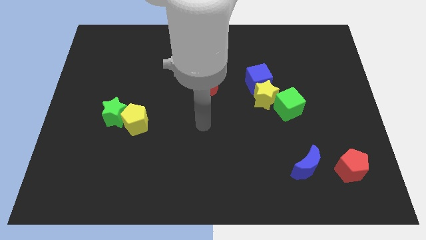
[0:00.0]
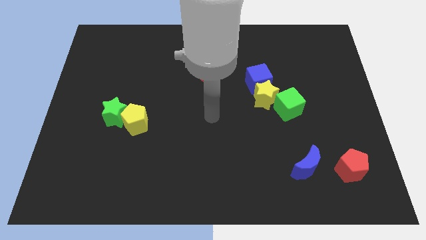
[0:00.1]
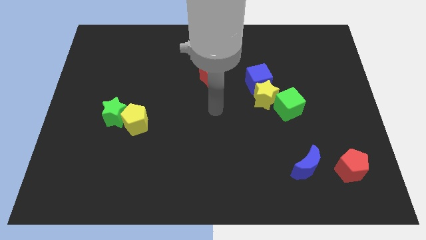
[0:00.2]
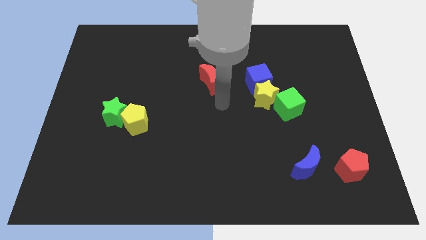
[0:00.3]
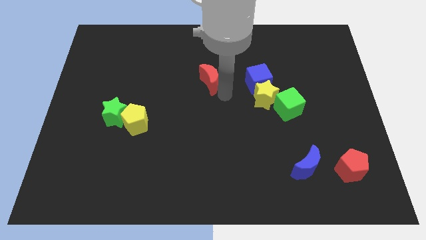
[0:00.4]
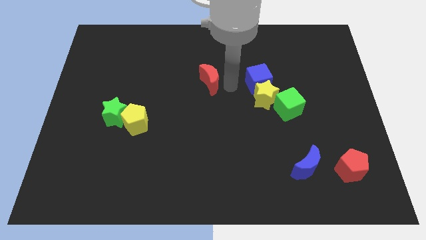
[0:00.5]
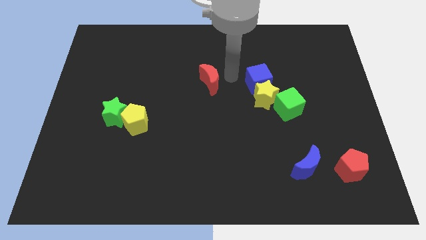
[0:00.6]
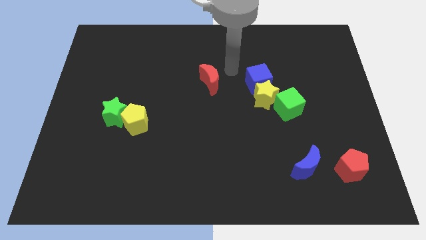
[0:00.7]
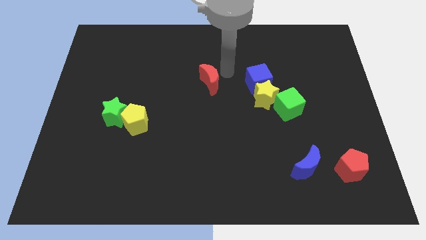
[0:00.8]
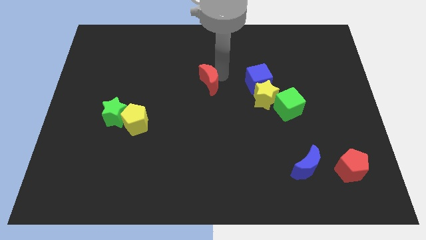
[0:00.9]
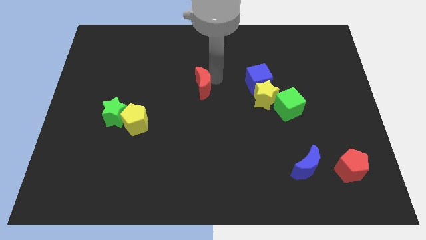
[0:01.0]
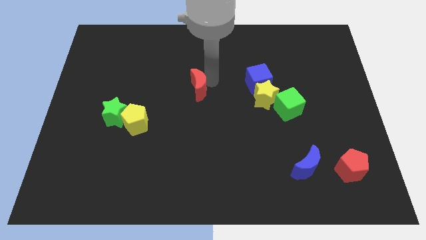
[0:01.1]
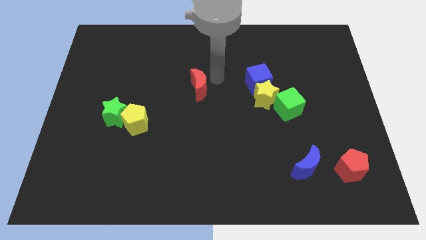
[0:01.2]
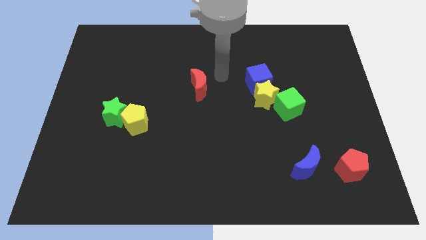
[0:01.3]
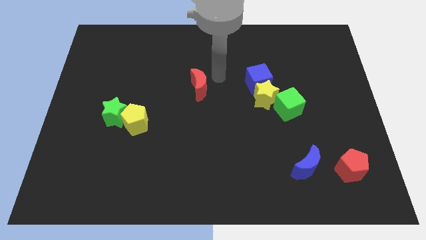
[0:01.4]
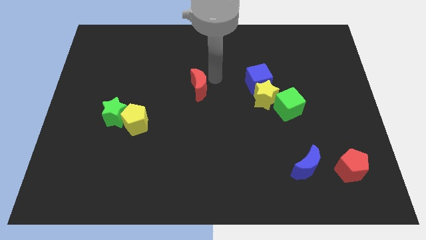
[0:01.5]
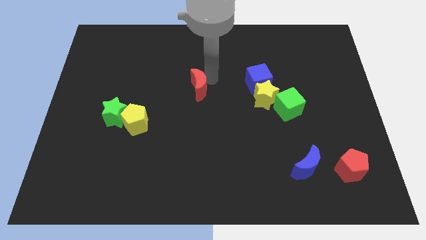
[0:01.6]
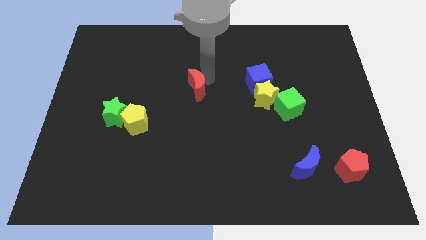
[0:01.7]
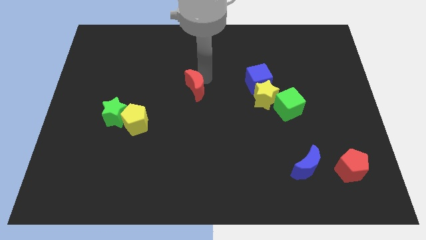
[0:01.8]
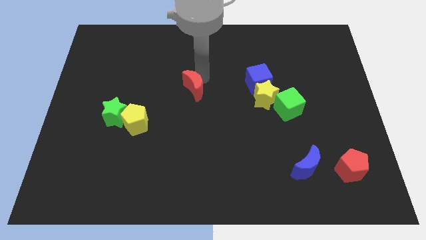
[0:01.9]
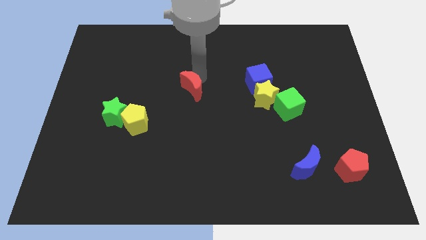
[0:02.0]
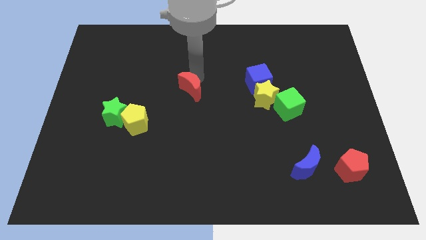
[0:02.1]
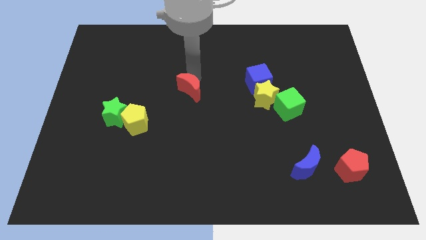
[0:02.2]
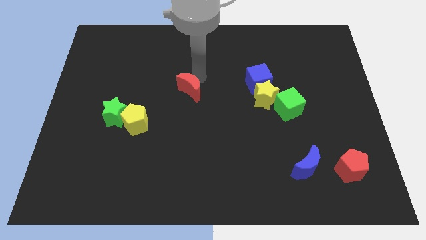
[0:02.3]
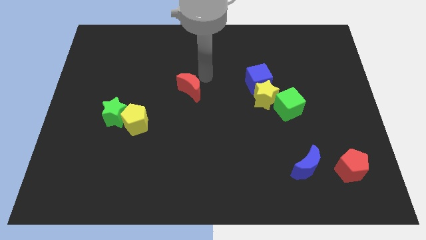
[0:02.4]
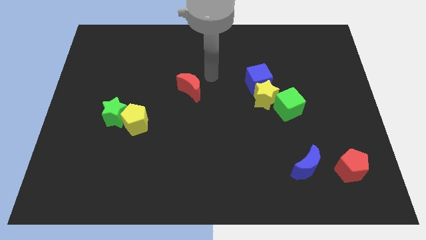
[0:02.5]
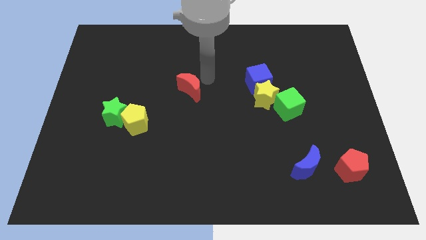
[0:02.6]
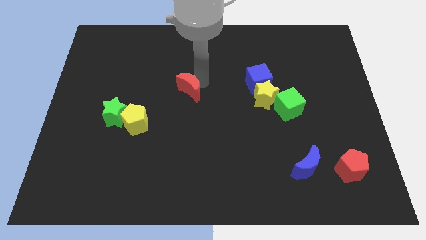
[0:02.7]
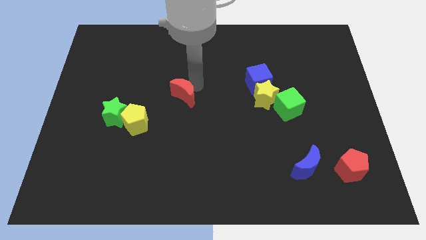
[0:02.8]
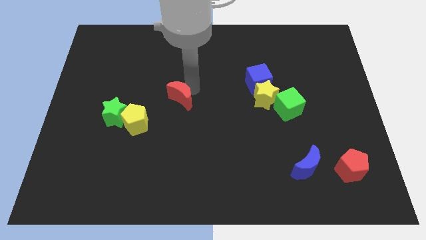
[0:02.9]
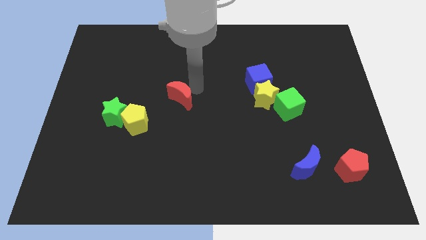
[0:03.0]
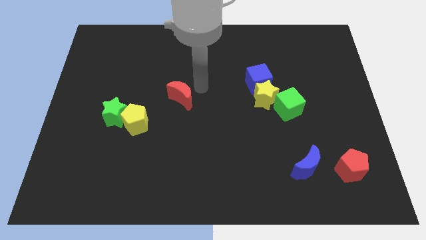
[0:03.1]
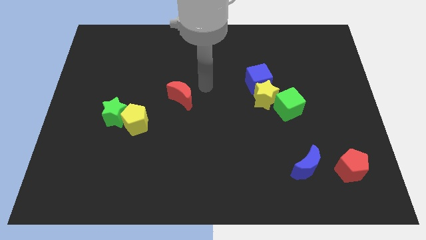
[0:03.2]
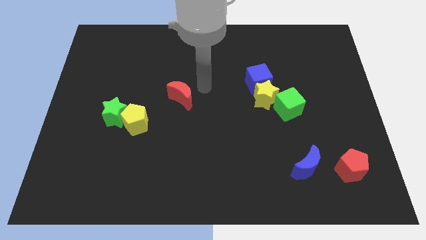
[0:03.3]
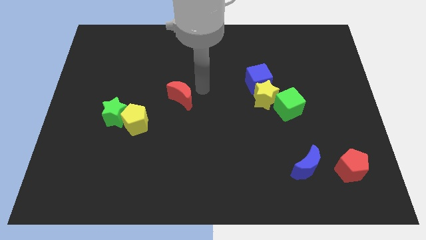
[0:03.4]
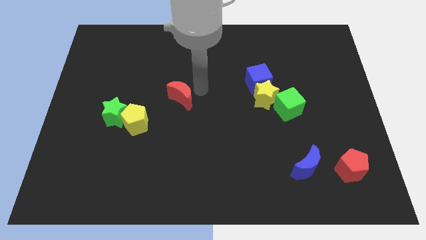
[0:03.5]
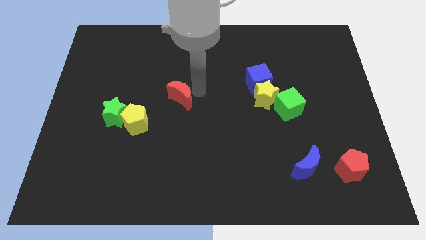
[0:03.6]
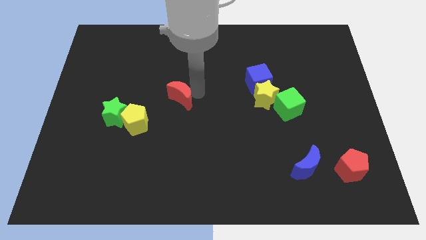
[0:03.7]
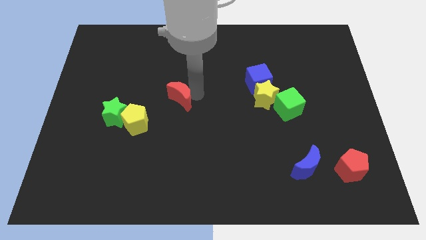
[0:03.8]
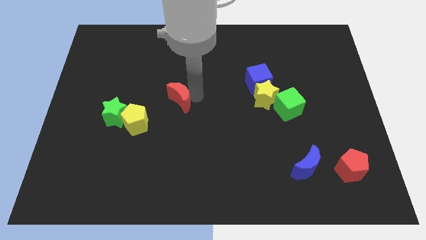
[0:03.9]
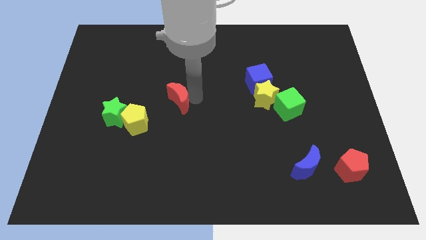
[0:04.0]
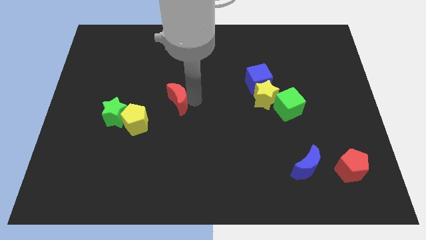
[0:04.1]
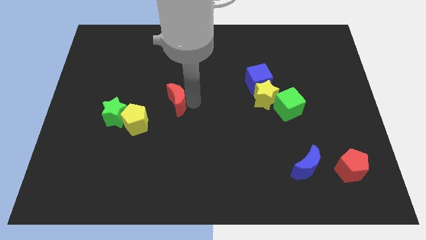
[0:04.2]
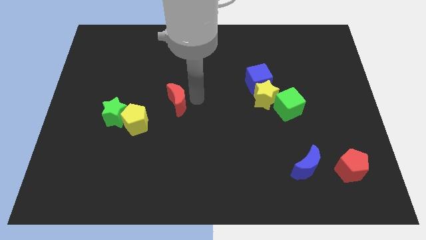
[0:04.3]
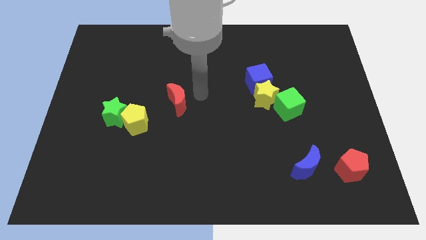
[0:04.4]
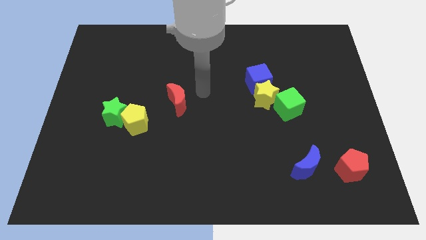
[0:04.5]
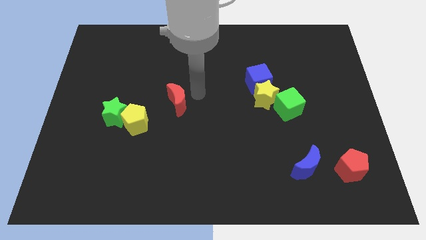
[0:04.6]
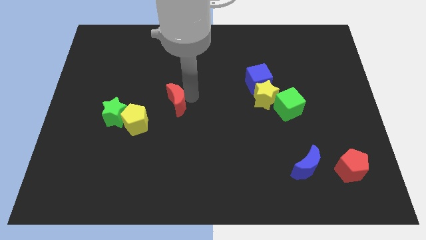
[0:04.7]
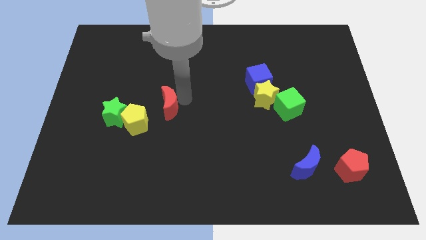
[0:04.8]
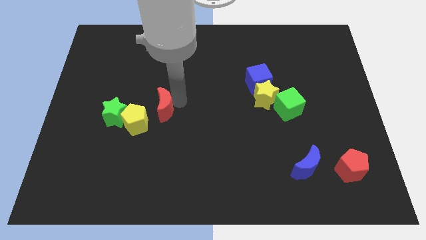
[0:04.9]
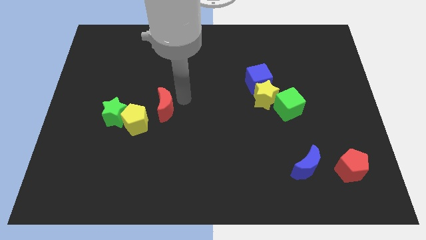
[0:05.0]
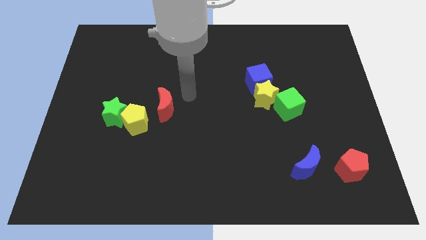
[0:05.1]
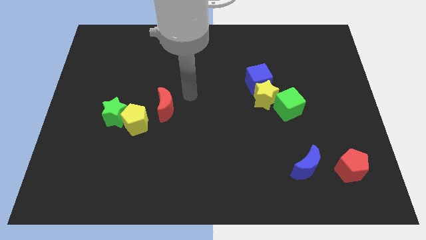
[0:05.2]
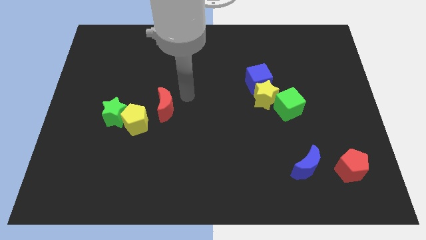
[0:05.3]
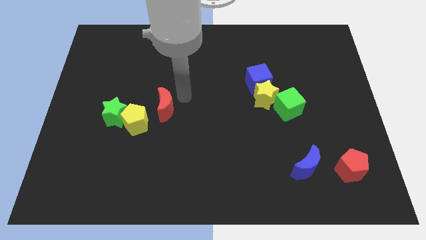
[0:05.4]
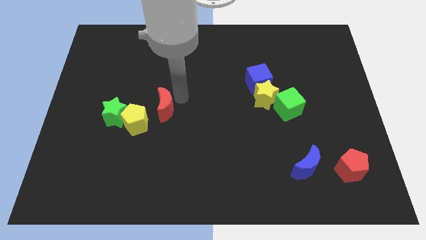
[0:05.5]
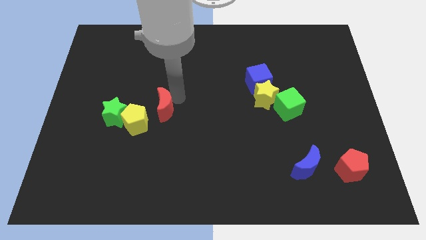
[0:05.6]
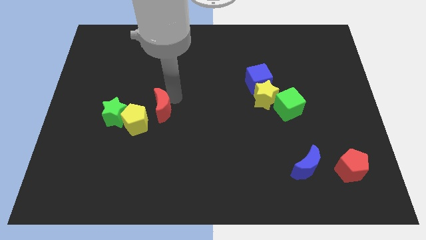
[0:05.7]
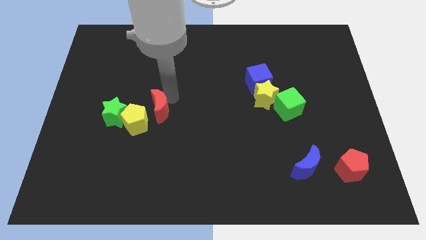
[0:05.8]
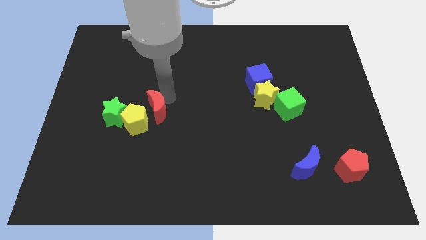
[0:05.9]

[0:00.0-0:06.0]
slide the red moon towards the yellow pentagon

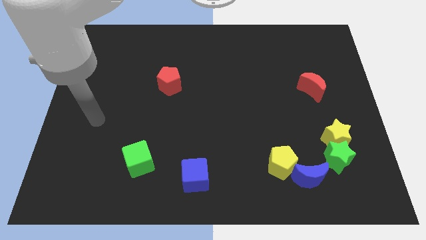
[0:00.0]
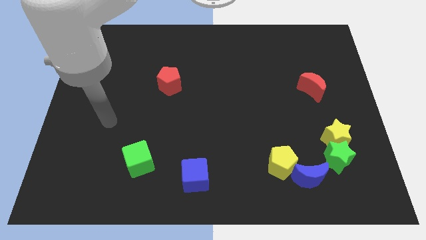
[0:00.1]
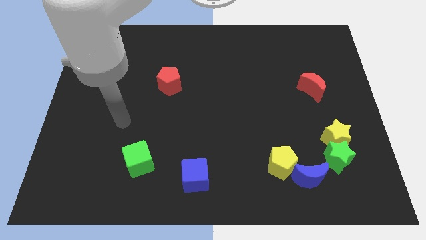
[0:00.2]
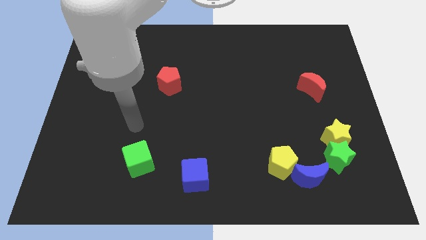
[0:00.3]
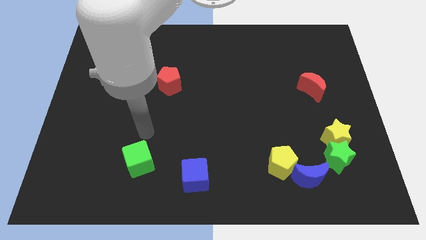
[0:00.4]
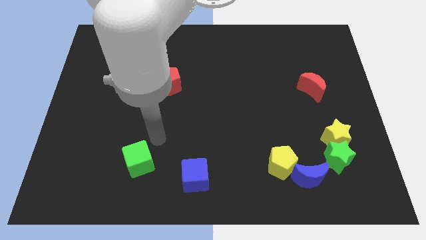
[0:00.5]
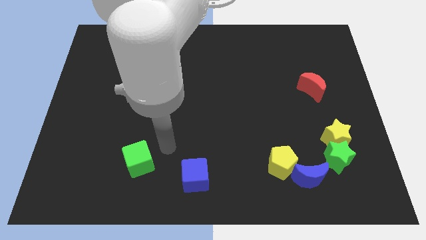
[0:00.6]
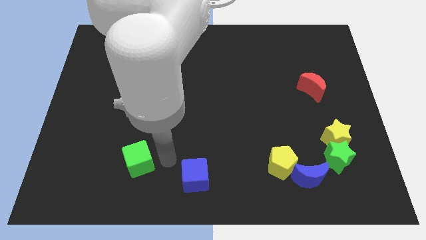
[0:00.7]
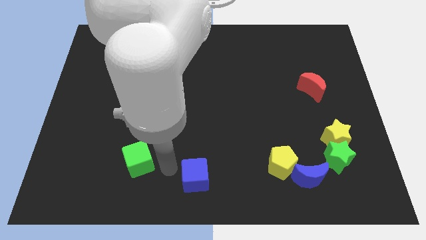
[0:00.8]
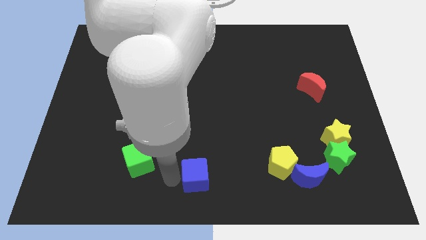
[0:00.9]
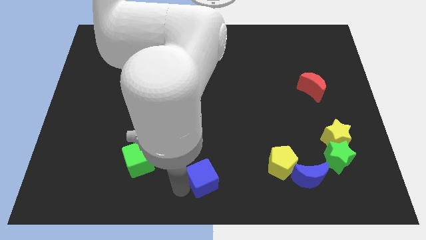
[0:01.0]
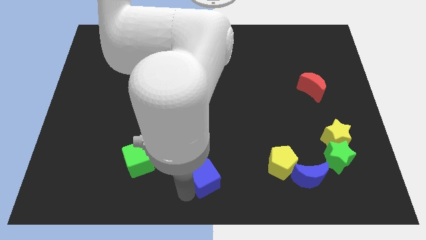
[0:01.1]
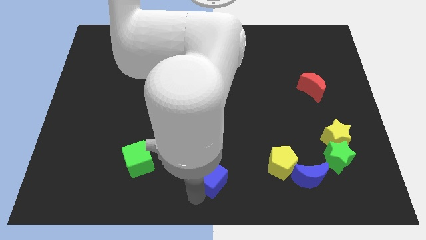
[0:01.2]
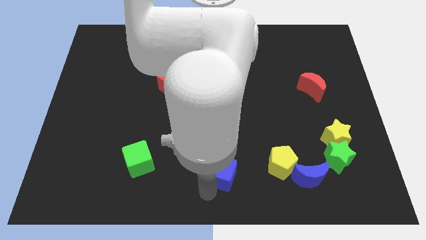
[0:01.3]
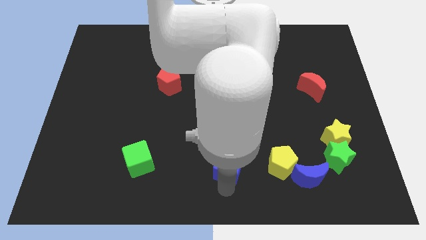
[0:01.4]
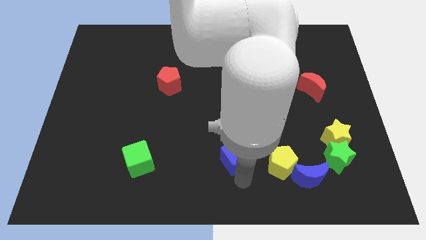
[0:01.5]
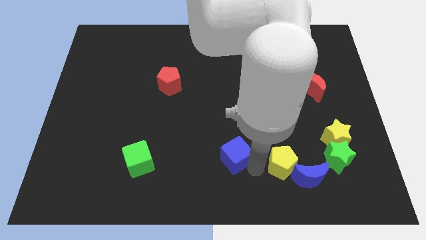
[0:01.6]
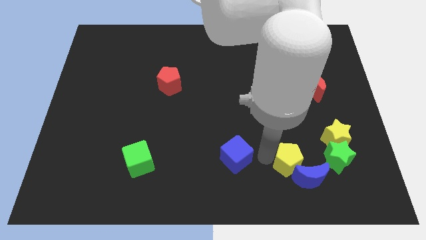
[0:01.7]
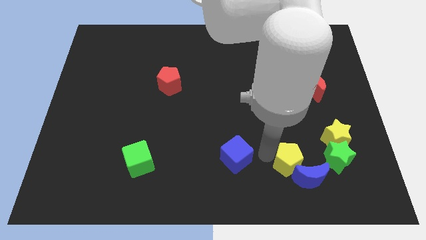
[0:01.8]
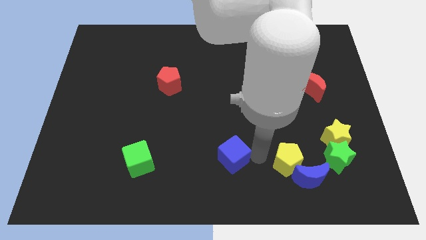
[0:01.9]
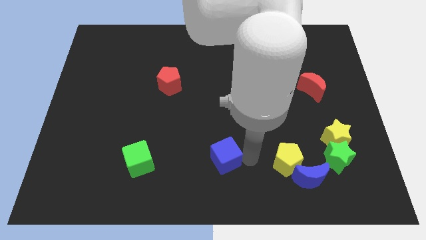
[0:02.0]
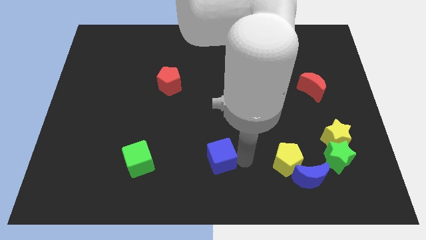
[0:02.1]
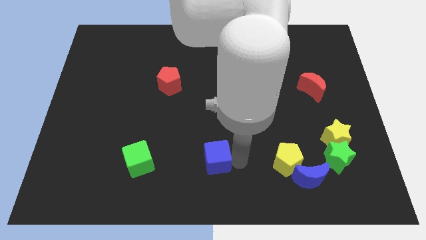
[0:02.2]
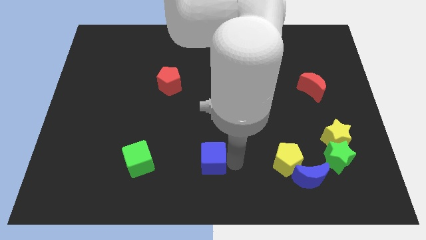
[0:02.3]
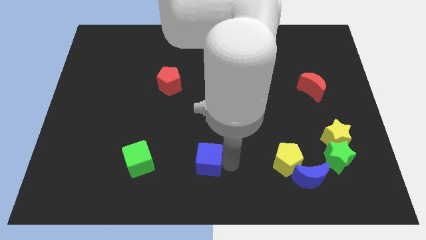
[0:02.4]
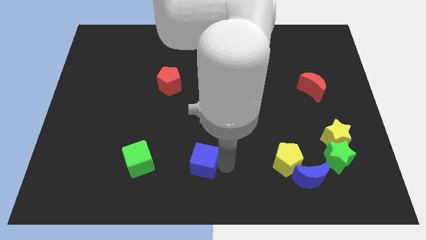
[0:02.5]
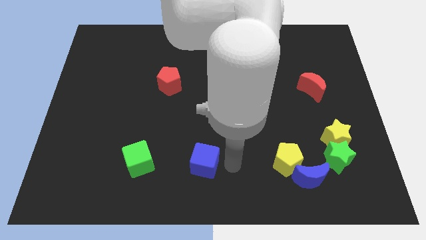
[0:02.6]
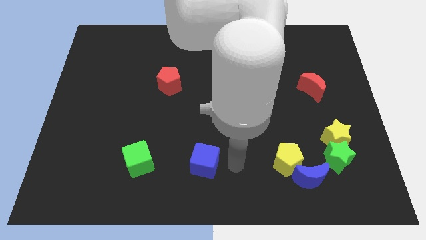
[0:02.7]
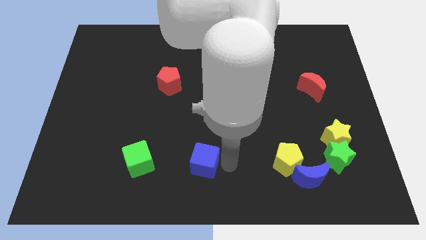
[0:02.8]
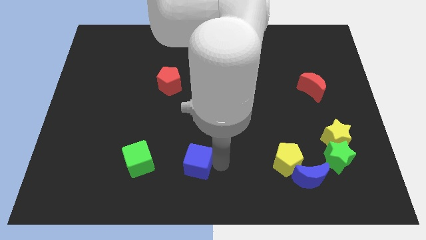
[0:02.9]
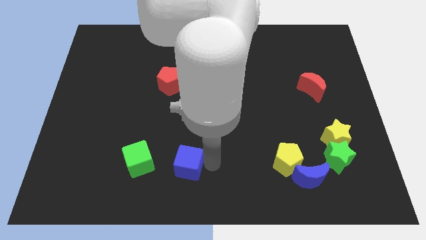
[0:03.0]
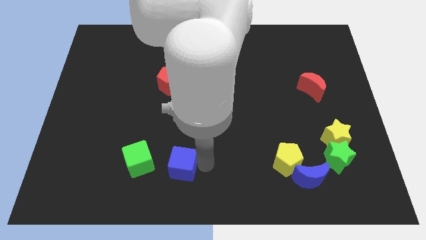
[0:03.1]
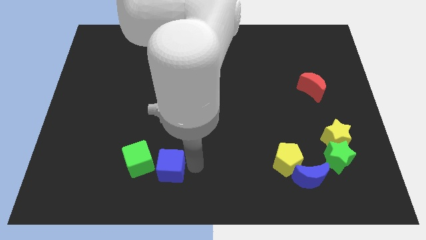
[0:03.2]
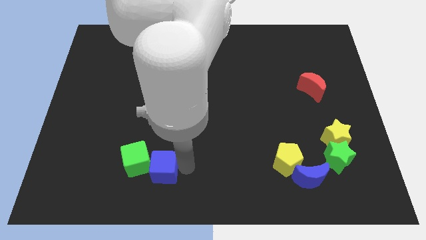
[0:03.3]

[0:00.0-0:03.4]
slide the blue cube towards the green cube
